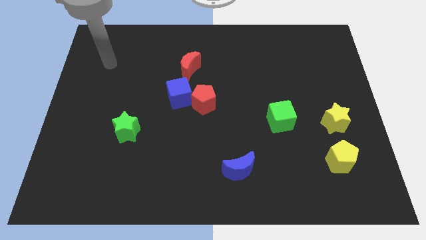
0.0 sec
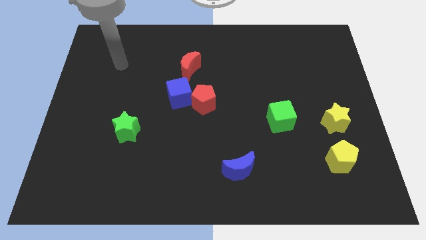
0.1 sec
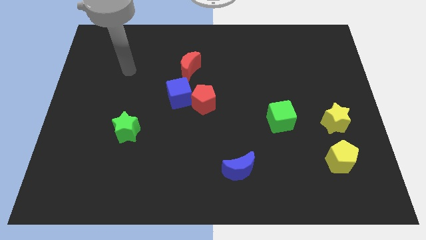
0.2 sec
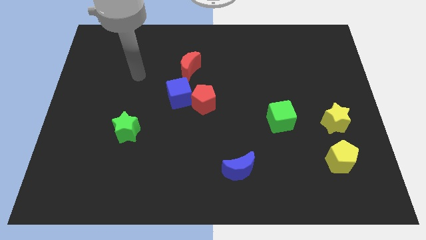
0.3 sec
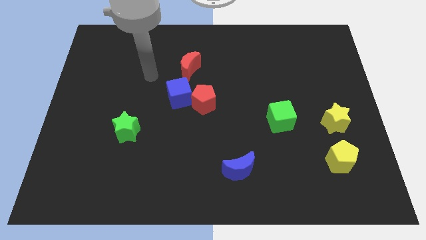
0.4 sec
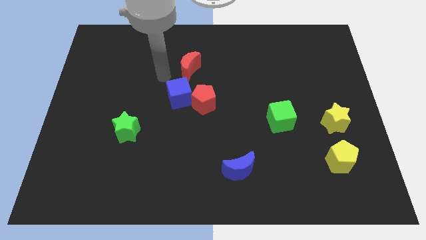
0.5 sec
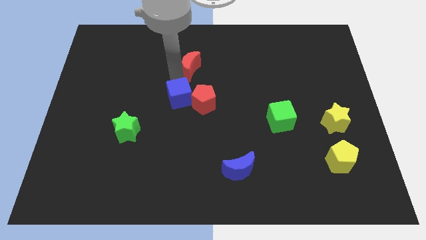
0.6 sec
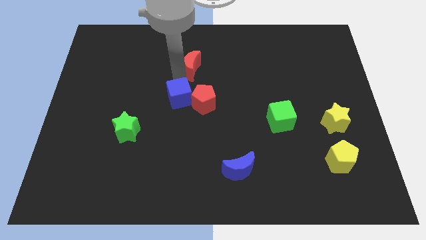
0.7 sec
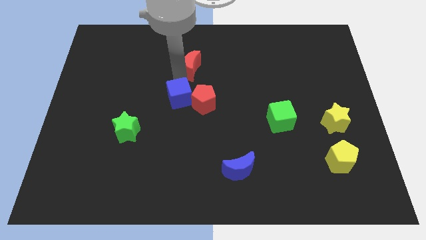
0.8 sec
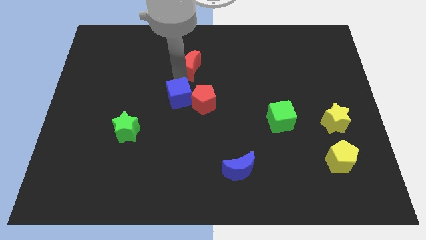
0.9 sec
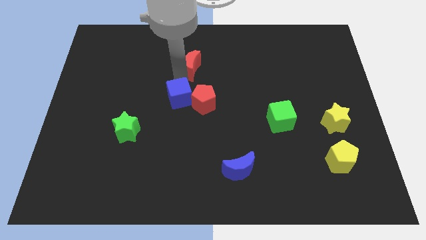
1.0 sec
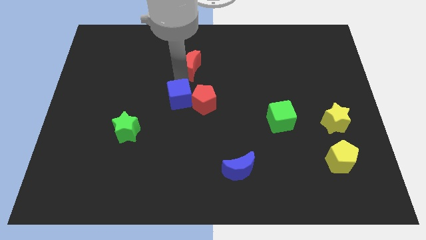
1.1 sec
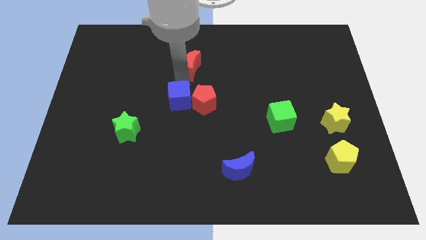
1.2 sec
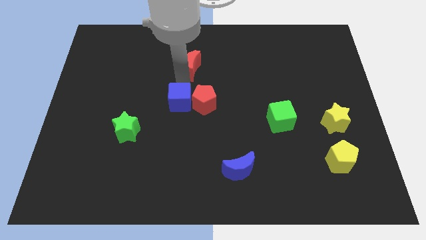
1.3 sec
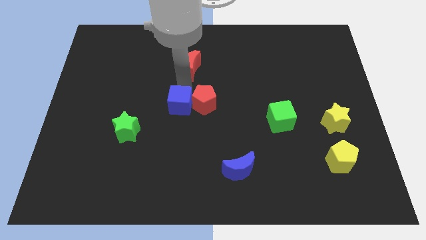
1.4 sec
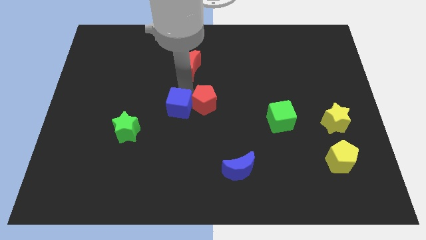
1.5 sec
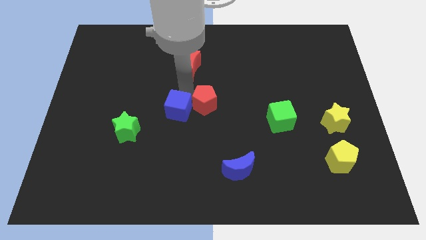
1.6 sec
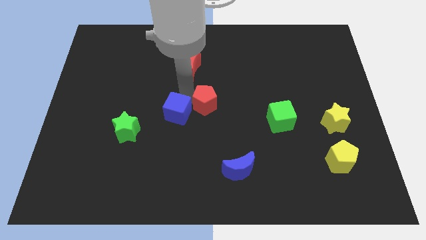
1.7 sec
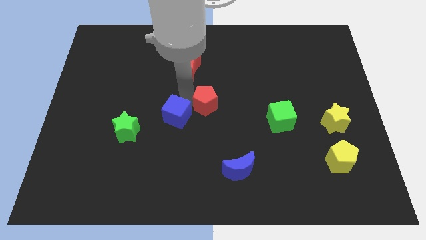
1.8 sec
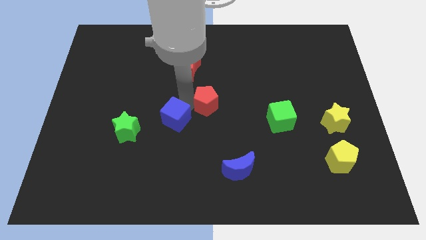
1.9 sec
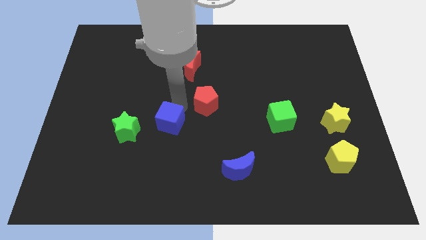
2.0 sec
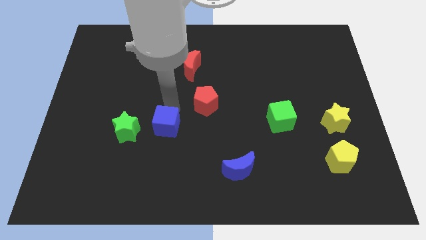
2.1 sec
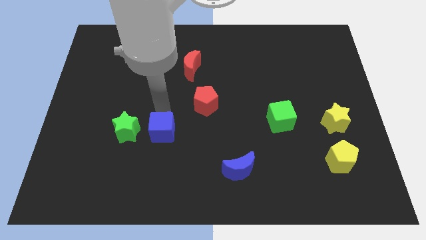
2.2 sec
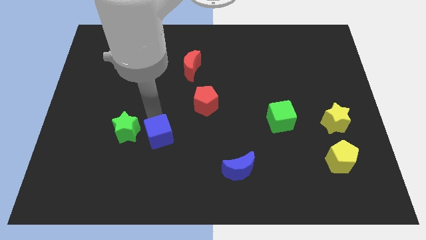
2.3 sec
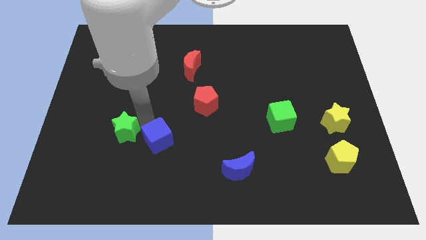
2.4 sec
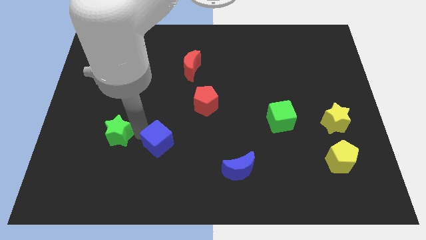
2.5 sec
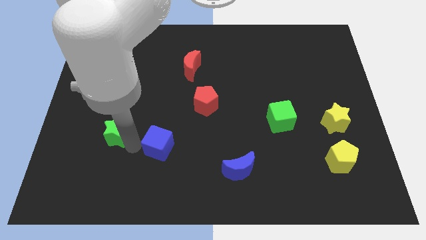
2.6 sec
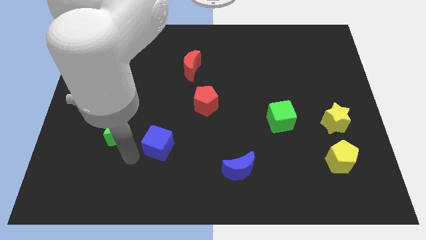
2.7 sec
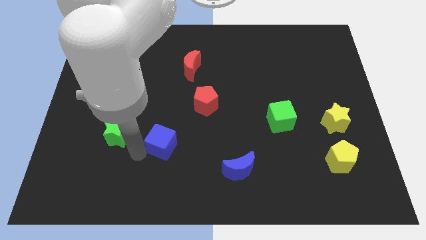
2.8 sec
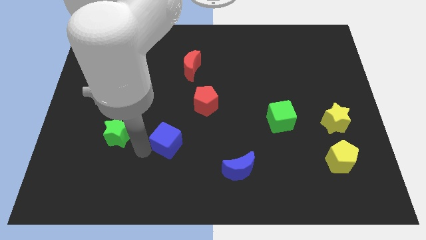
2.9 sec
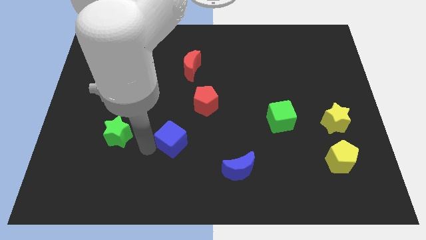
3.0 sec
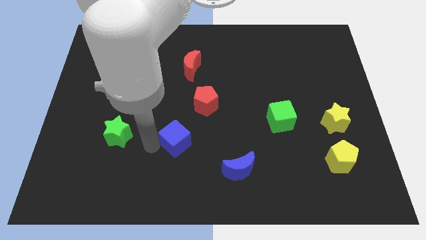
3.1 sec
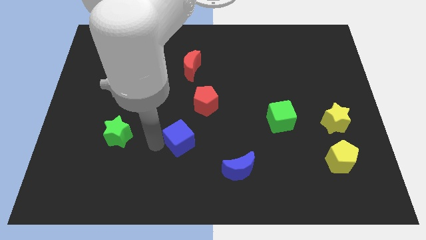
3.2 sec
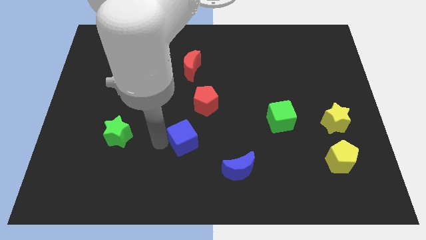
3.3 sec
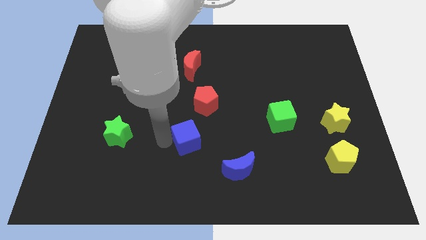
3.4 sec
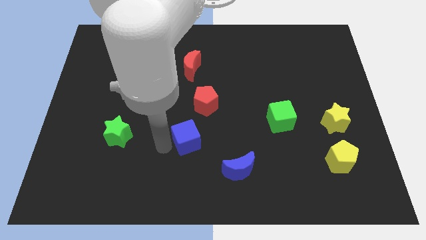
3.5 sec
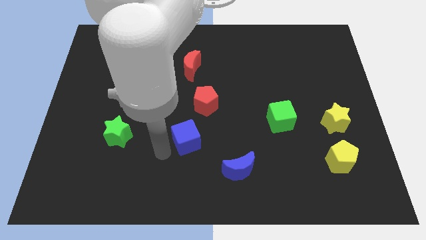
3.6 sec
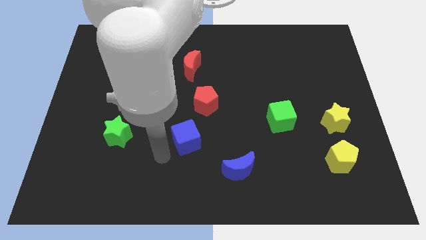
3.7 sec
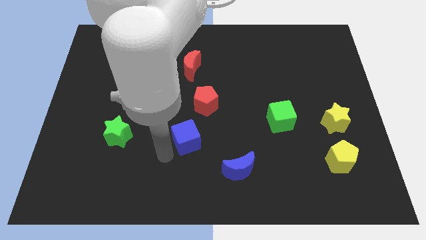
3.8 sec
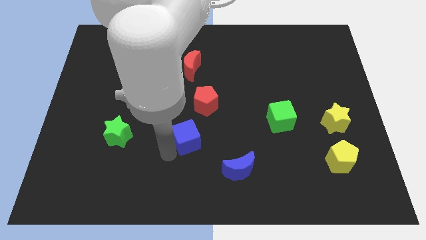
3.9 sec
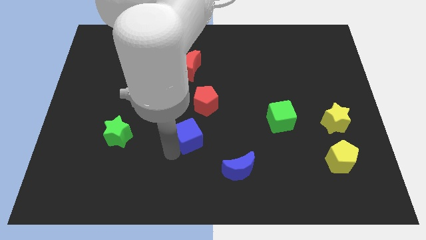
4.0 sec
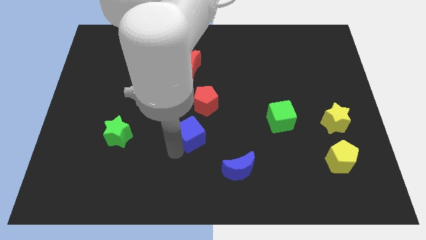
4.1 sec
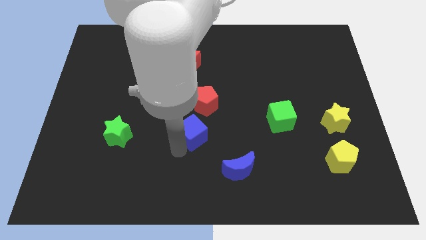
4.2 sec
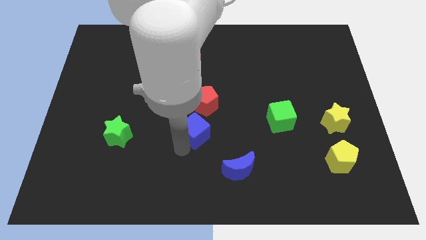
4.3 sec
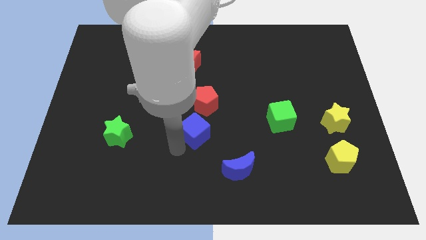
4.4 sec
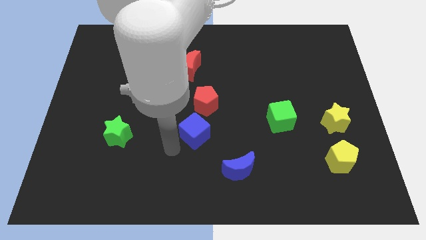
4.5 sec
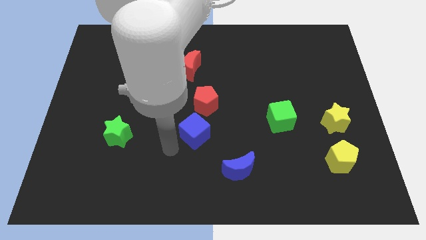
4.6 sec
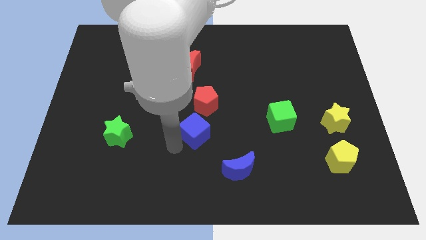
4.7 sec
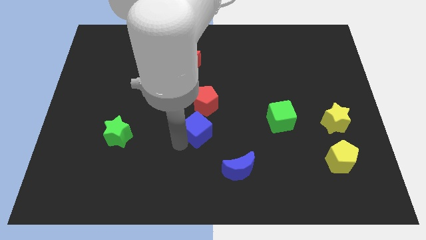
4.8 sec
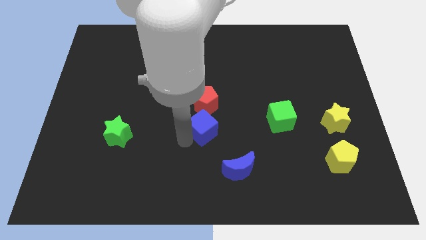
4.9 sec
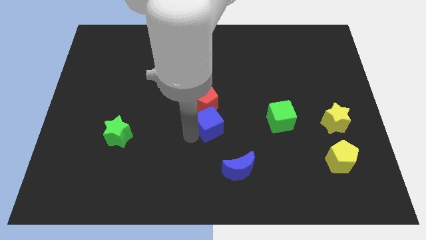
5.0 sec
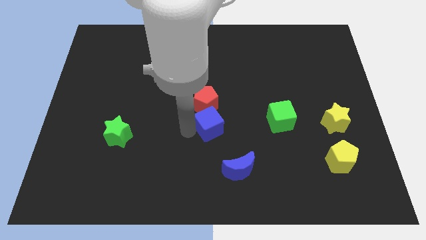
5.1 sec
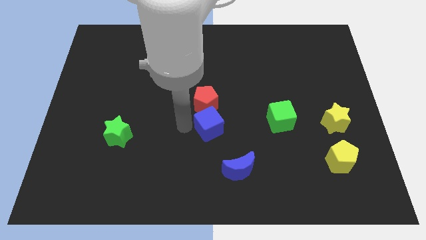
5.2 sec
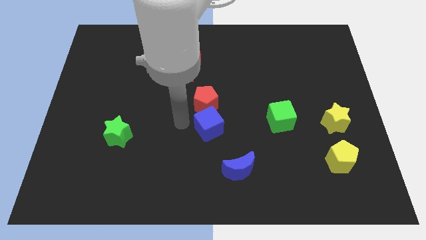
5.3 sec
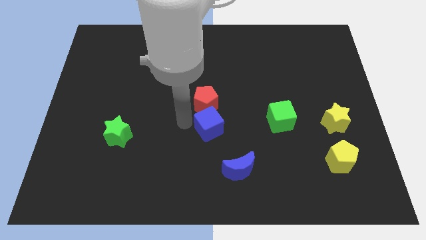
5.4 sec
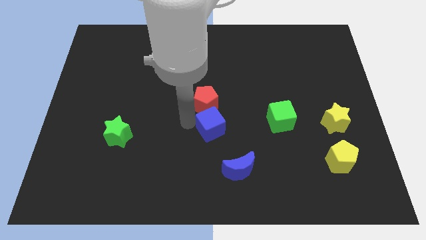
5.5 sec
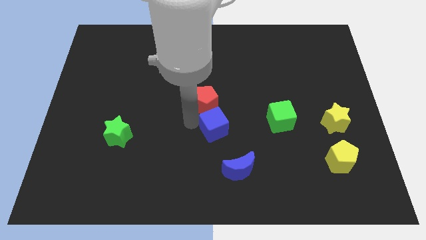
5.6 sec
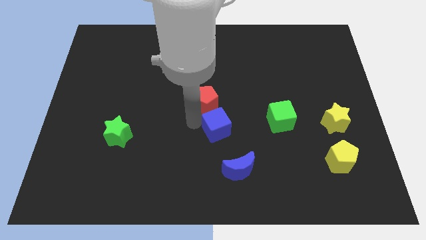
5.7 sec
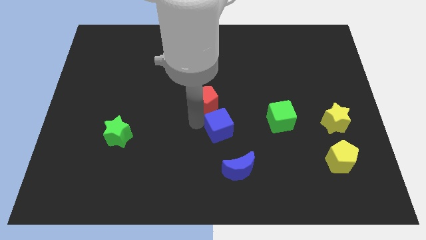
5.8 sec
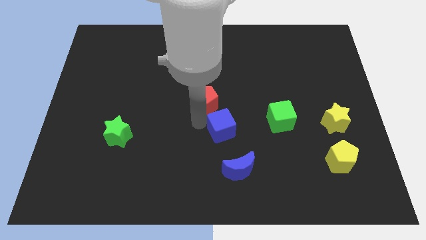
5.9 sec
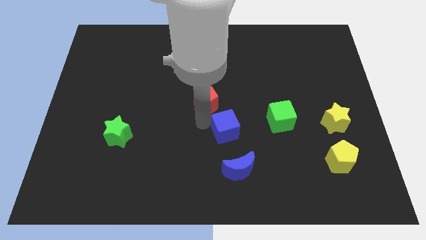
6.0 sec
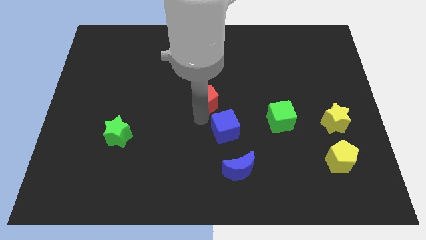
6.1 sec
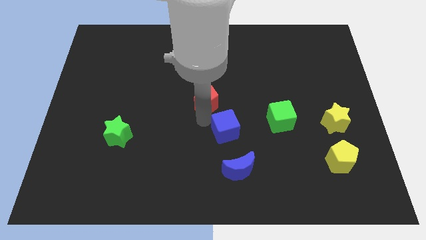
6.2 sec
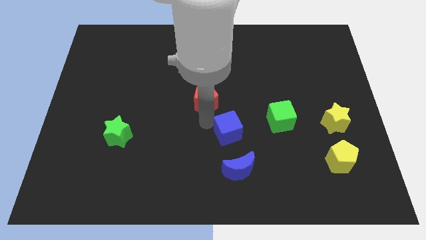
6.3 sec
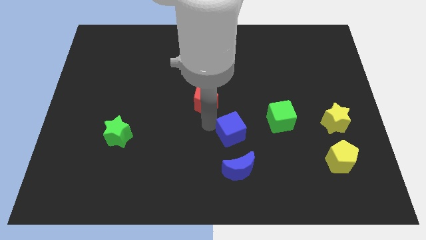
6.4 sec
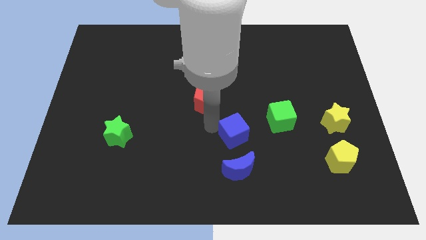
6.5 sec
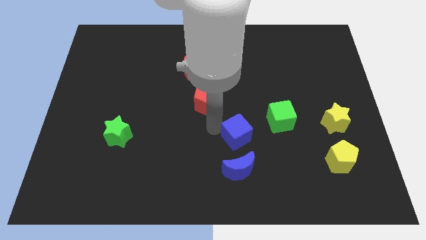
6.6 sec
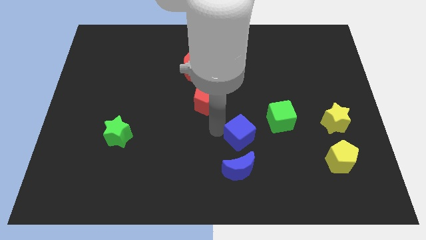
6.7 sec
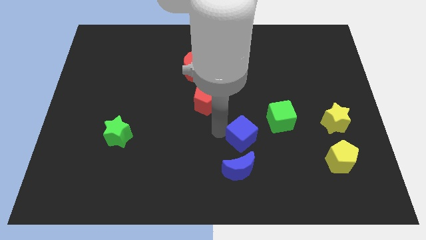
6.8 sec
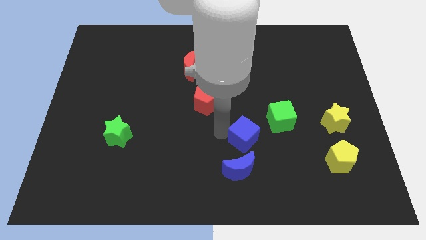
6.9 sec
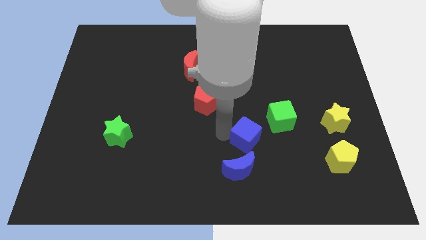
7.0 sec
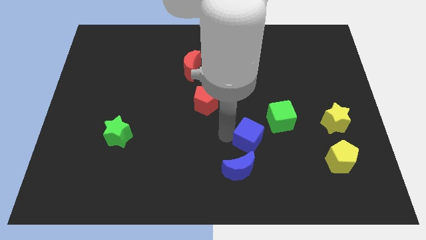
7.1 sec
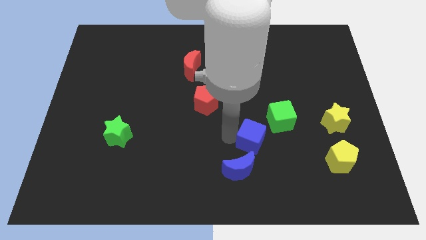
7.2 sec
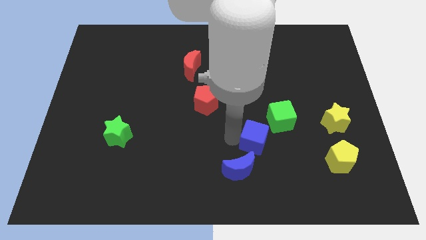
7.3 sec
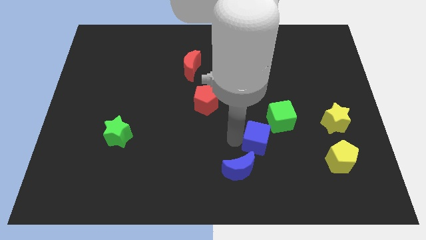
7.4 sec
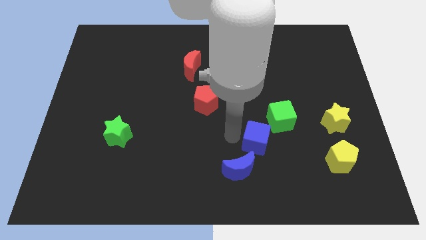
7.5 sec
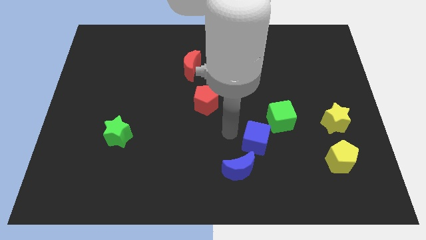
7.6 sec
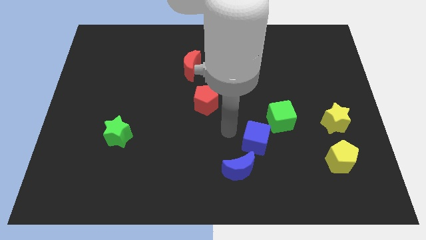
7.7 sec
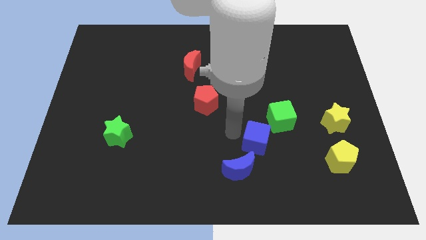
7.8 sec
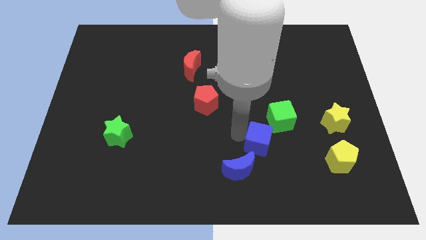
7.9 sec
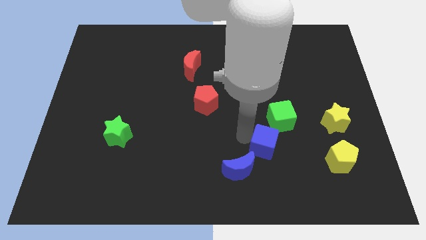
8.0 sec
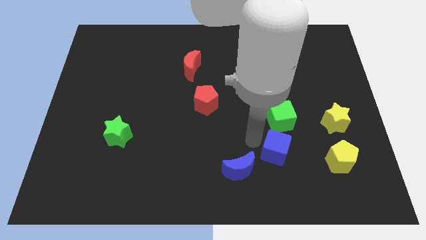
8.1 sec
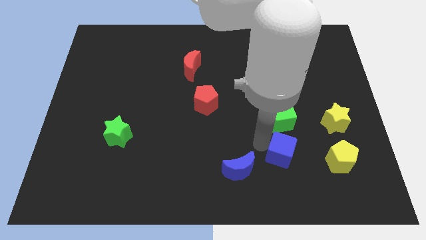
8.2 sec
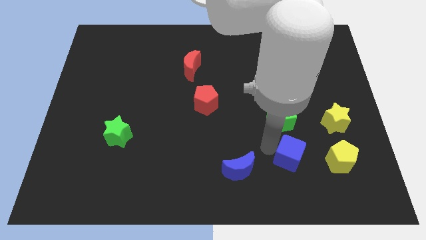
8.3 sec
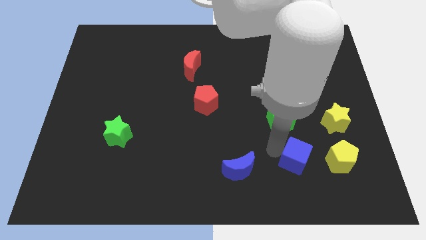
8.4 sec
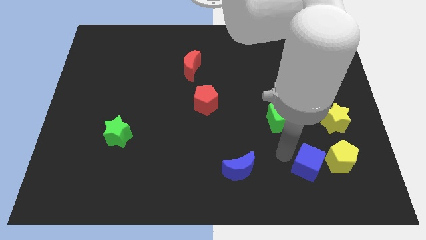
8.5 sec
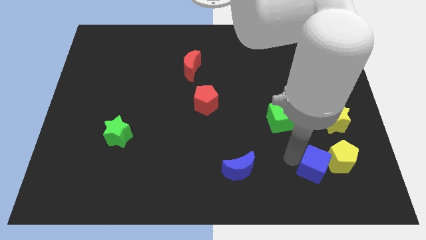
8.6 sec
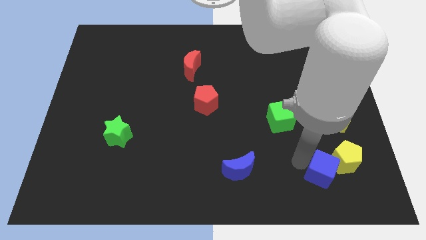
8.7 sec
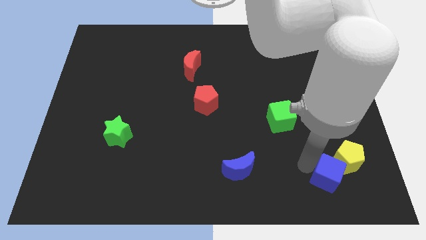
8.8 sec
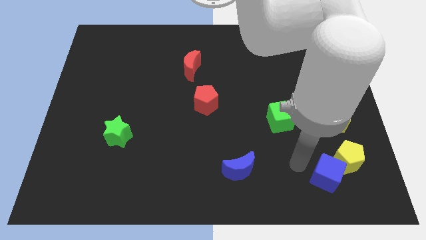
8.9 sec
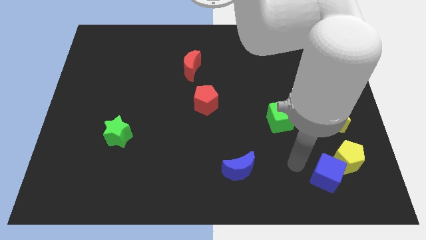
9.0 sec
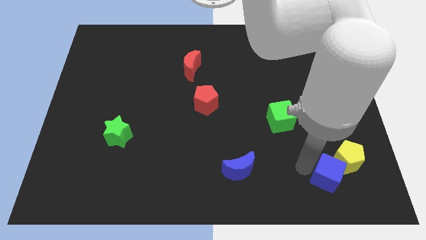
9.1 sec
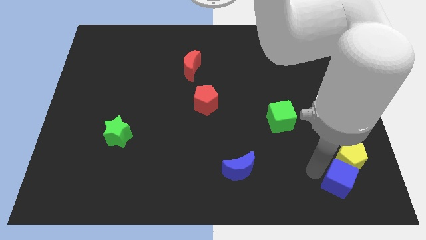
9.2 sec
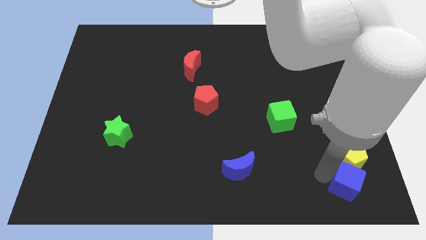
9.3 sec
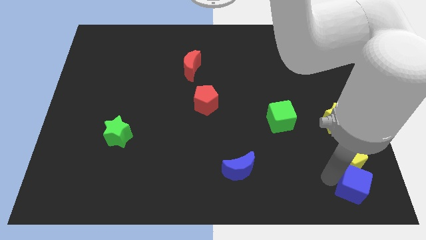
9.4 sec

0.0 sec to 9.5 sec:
move the blue cube to the lower right corner
